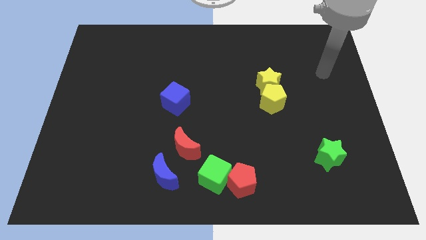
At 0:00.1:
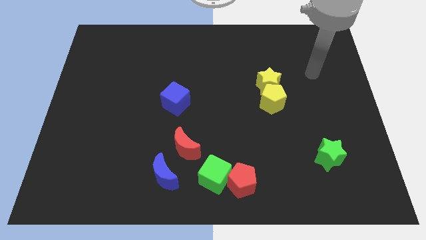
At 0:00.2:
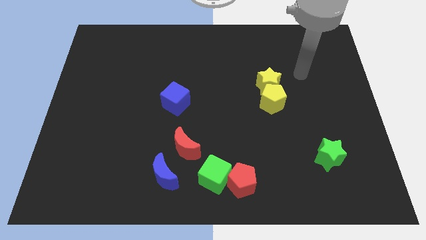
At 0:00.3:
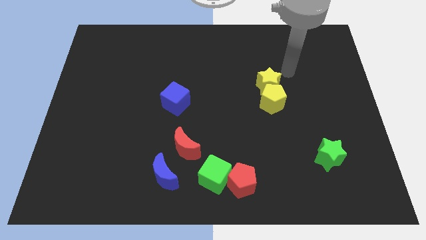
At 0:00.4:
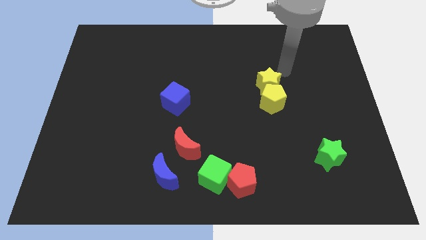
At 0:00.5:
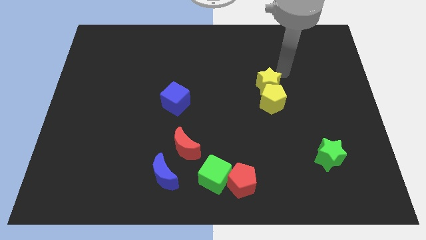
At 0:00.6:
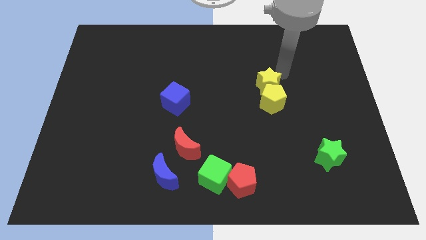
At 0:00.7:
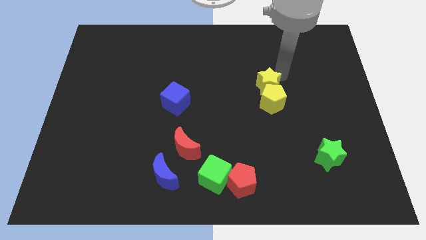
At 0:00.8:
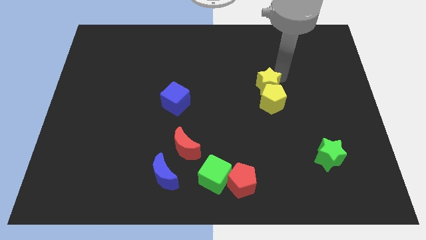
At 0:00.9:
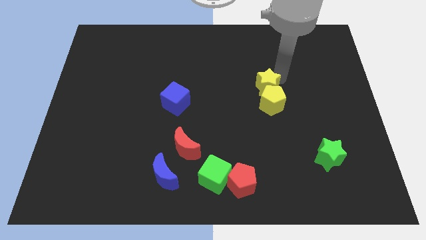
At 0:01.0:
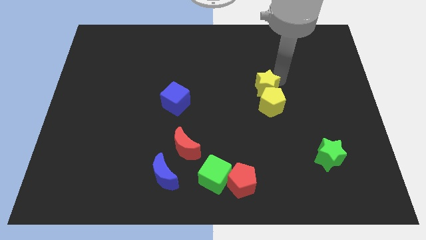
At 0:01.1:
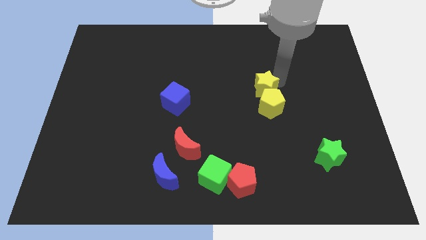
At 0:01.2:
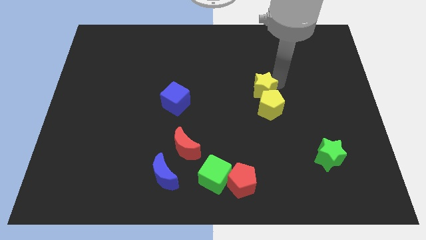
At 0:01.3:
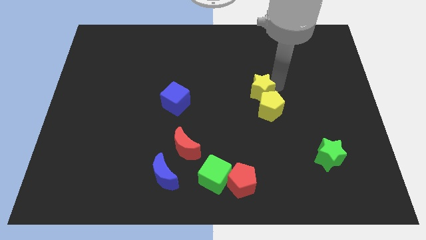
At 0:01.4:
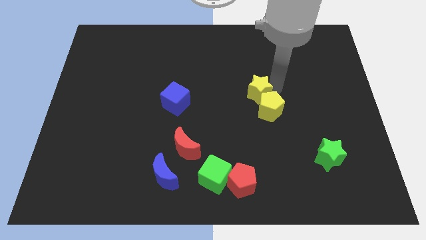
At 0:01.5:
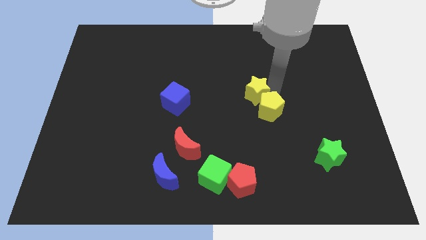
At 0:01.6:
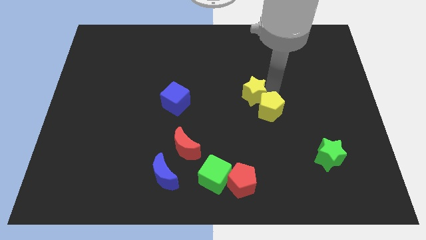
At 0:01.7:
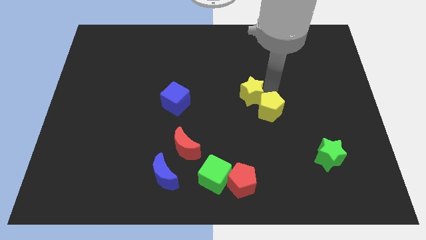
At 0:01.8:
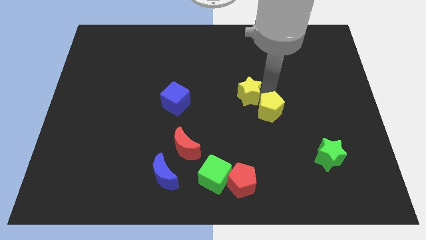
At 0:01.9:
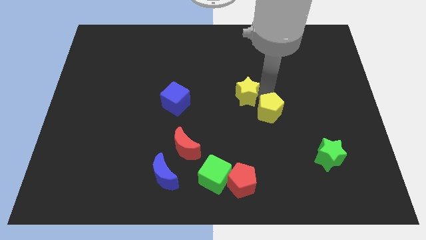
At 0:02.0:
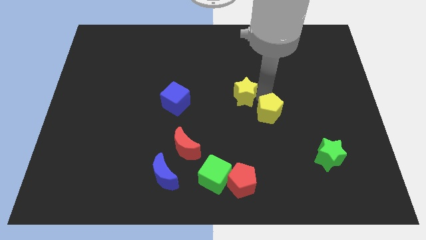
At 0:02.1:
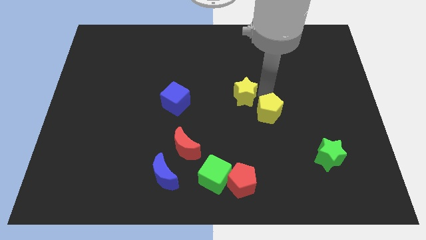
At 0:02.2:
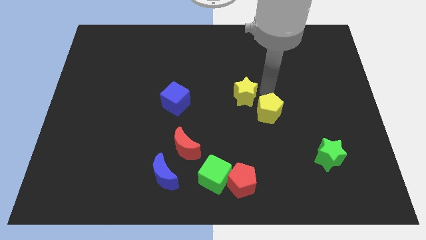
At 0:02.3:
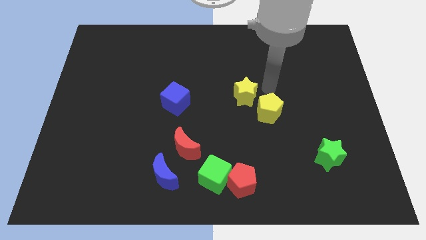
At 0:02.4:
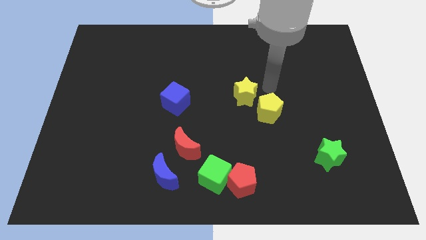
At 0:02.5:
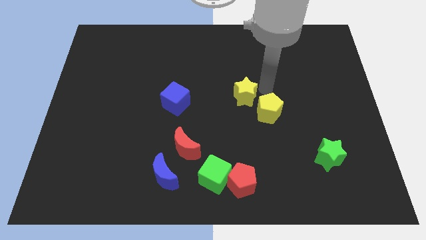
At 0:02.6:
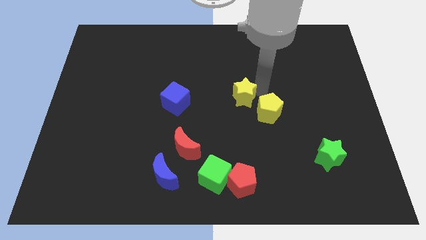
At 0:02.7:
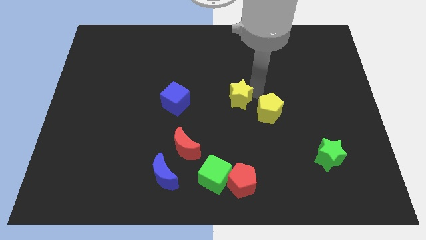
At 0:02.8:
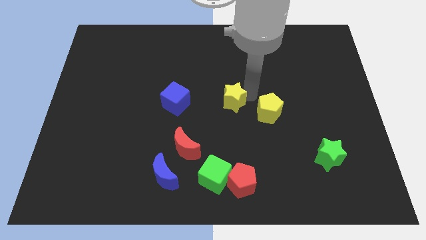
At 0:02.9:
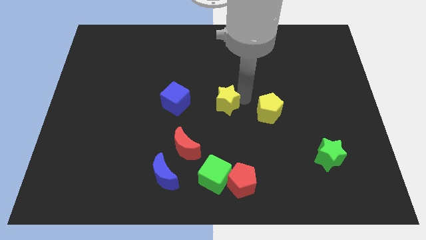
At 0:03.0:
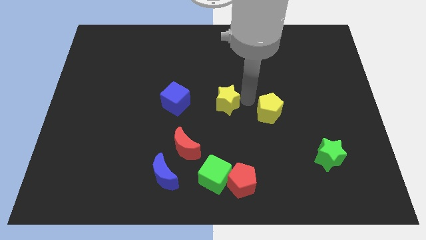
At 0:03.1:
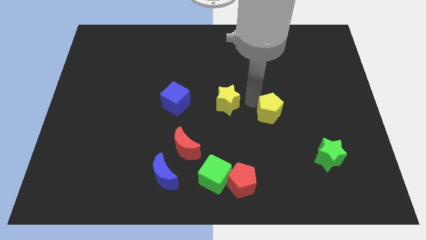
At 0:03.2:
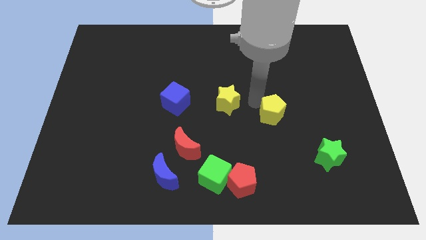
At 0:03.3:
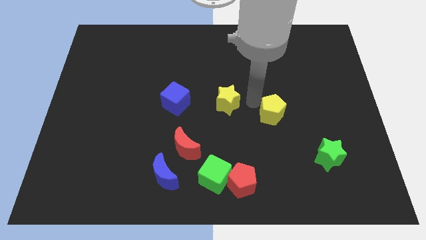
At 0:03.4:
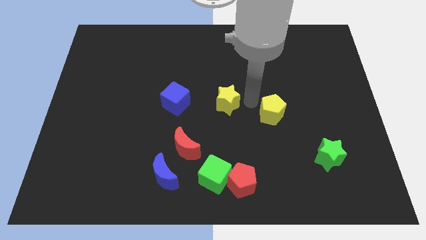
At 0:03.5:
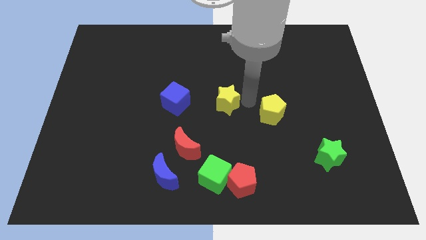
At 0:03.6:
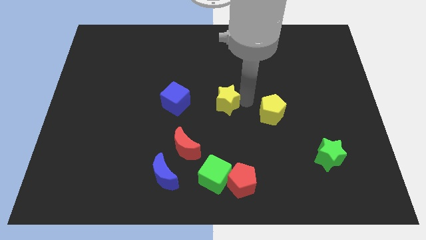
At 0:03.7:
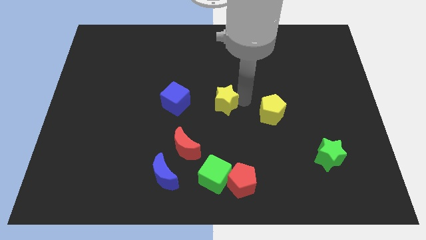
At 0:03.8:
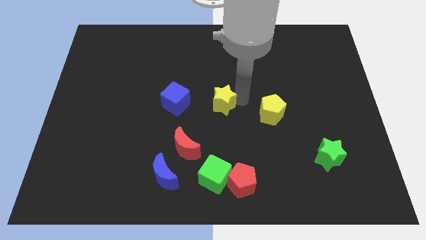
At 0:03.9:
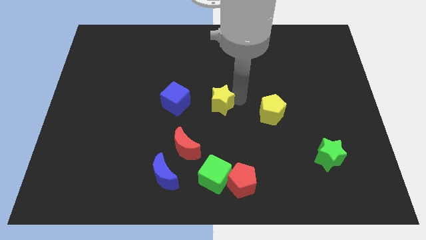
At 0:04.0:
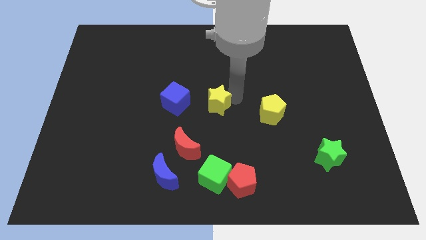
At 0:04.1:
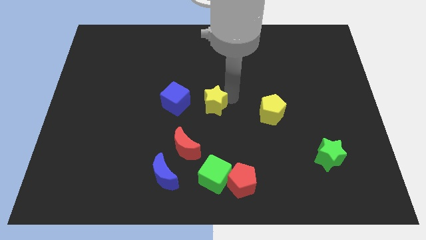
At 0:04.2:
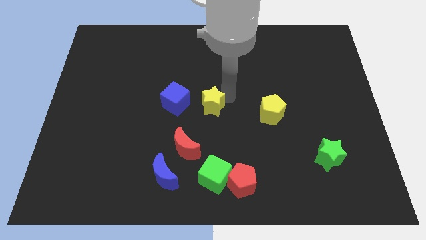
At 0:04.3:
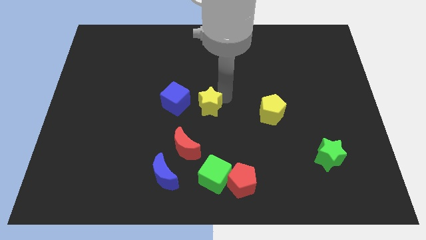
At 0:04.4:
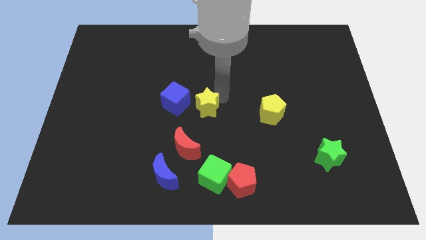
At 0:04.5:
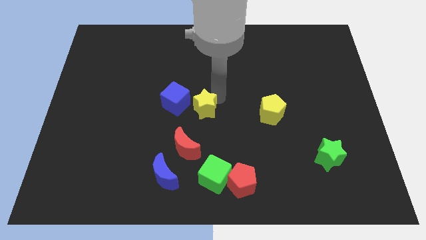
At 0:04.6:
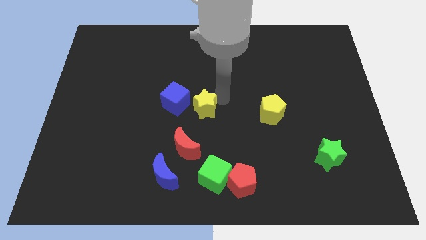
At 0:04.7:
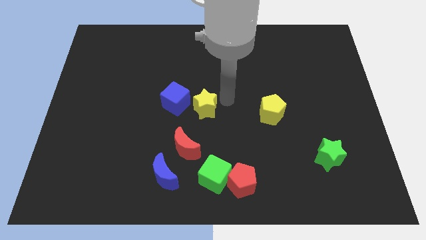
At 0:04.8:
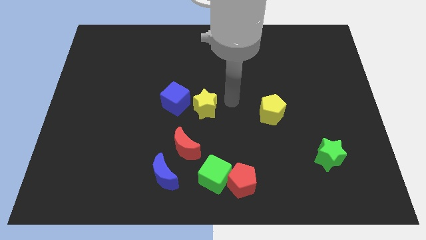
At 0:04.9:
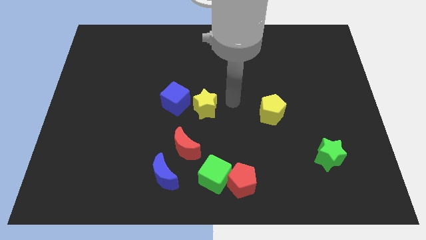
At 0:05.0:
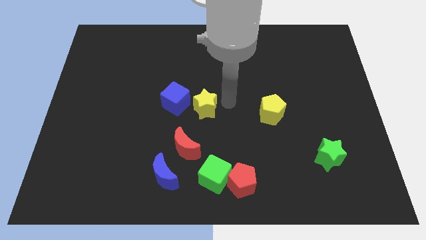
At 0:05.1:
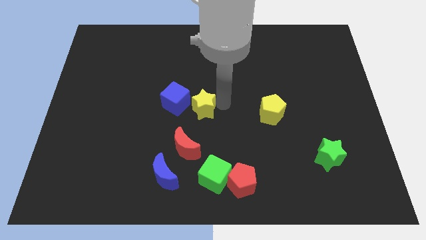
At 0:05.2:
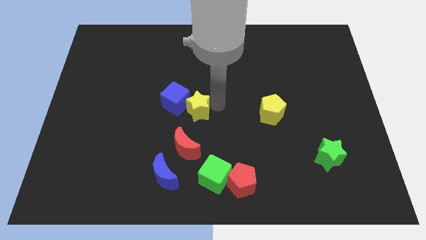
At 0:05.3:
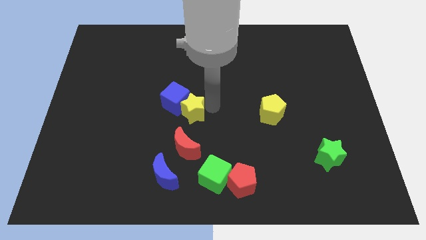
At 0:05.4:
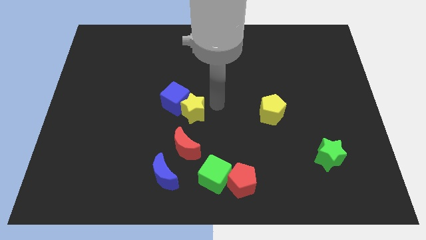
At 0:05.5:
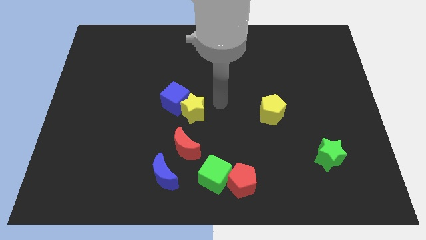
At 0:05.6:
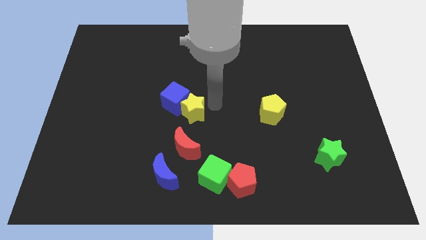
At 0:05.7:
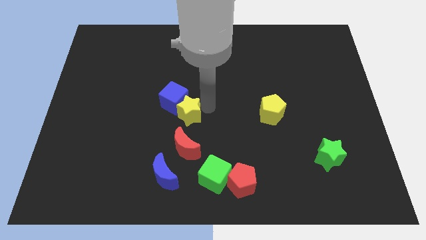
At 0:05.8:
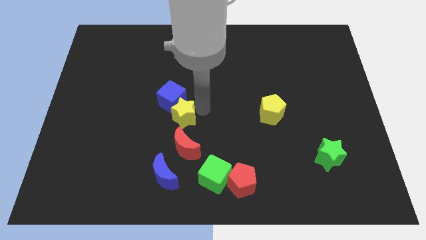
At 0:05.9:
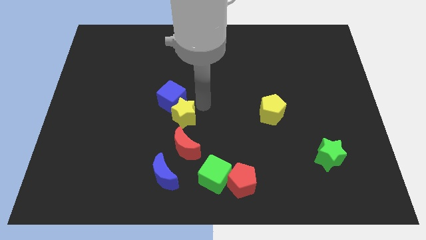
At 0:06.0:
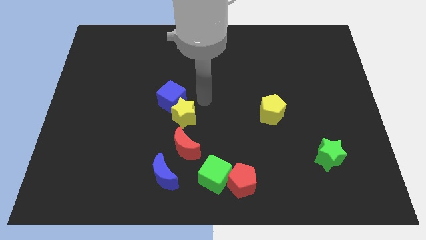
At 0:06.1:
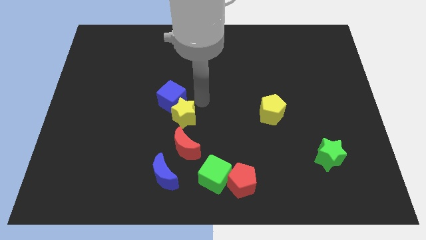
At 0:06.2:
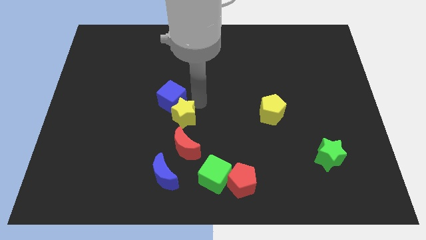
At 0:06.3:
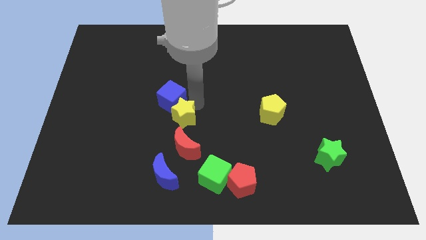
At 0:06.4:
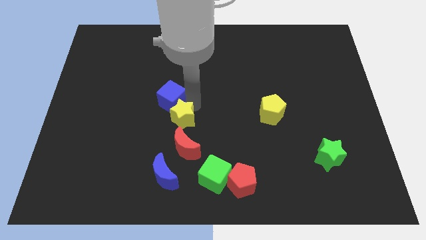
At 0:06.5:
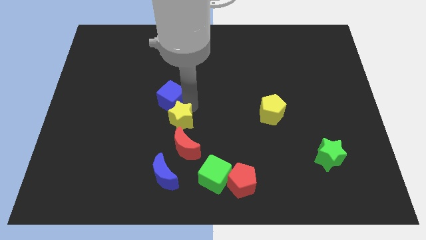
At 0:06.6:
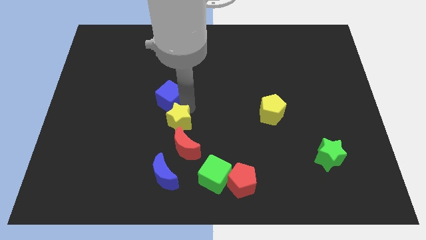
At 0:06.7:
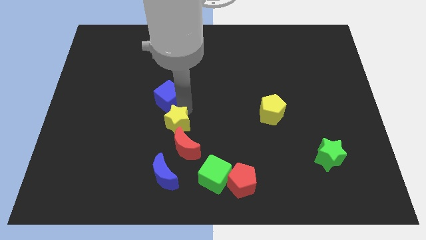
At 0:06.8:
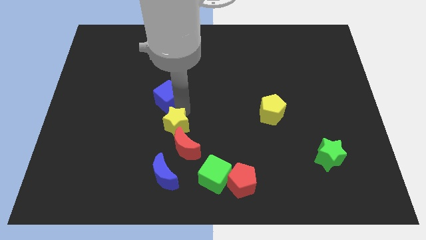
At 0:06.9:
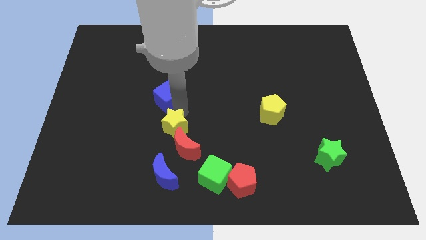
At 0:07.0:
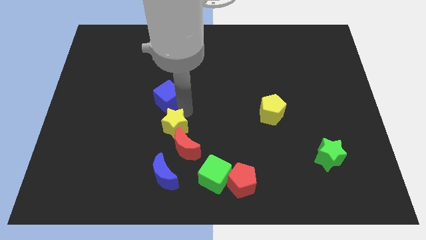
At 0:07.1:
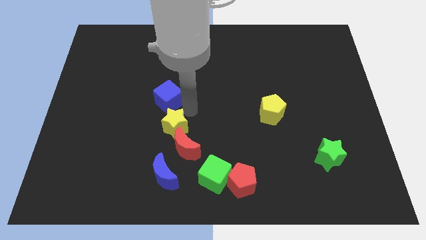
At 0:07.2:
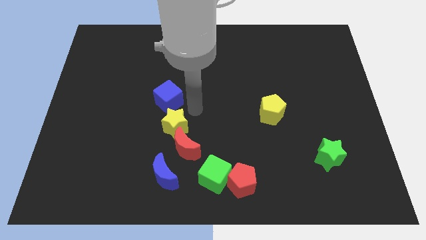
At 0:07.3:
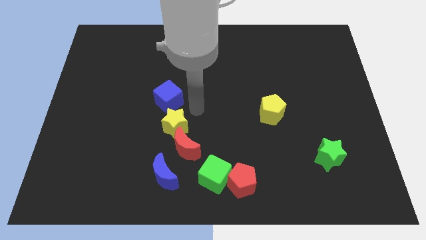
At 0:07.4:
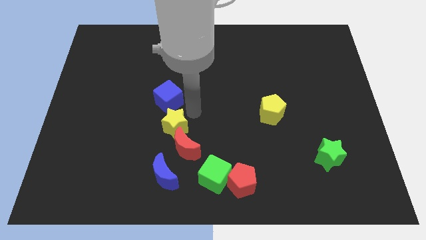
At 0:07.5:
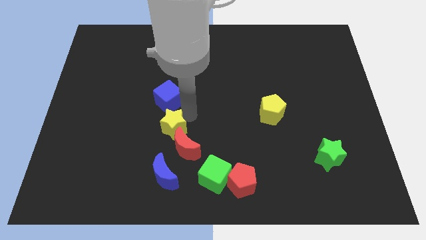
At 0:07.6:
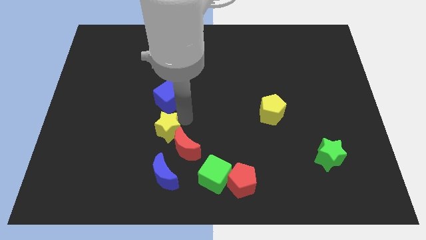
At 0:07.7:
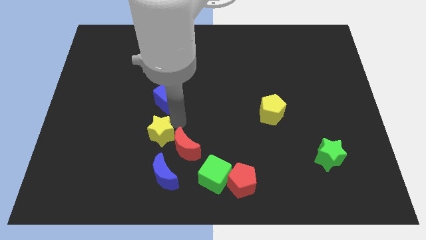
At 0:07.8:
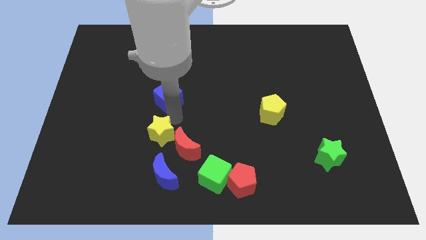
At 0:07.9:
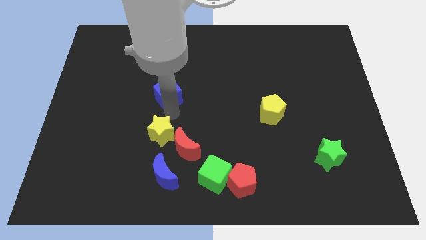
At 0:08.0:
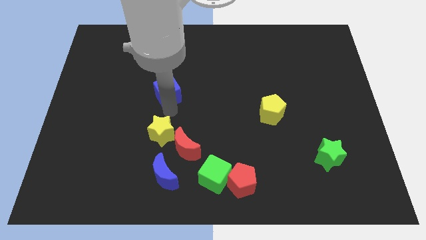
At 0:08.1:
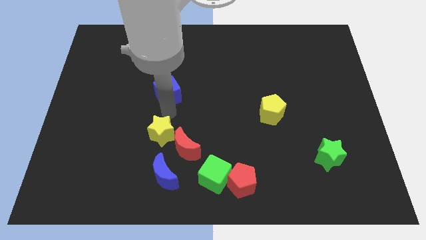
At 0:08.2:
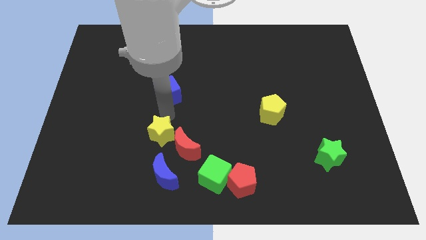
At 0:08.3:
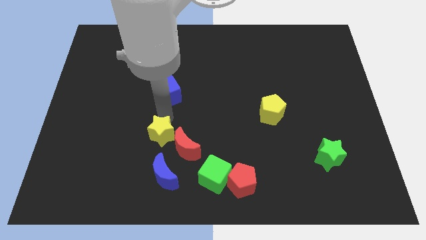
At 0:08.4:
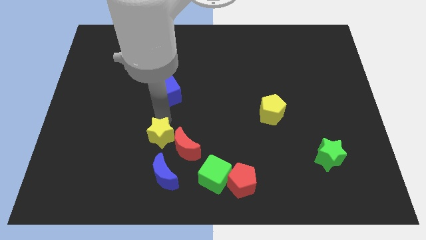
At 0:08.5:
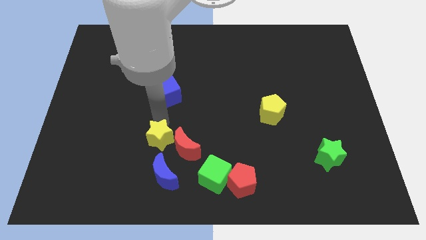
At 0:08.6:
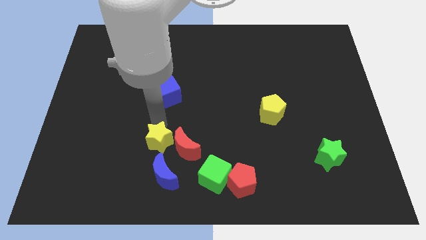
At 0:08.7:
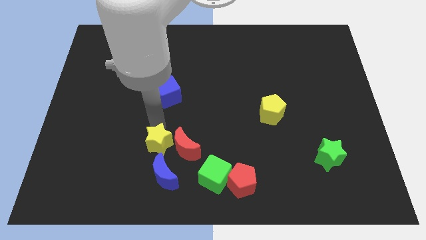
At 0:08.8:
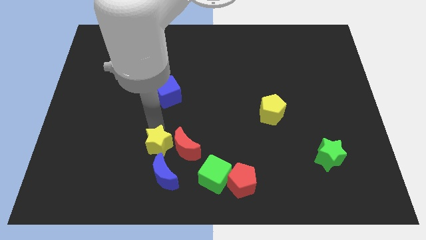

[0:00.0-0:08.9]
slide the yellow star to the bottom left side of the red moon
